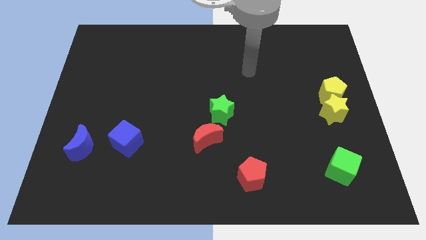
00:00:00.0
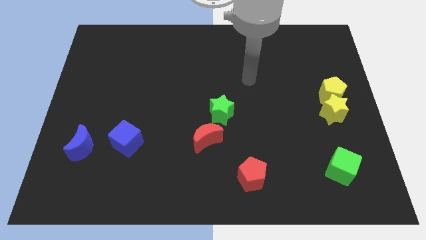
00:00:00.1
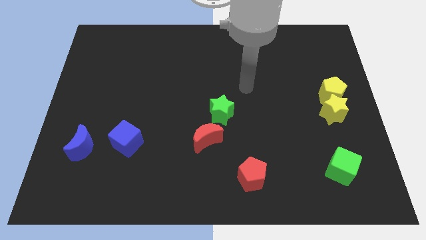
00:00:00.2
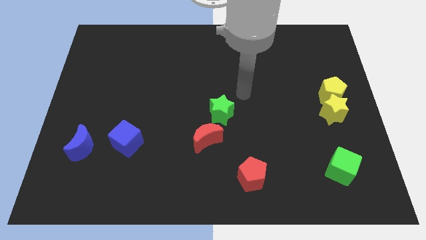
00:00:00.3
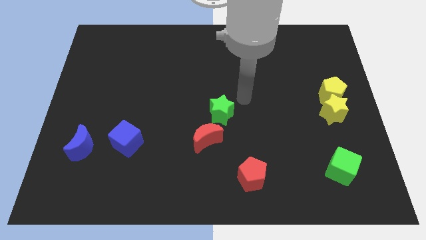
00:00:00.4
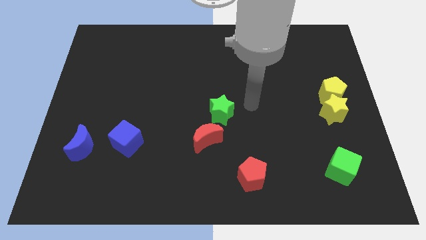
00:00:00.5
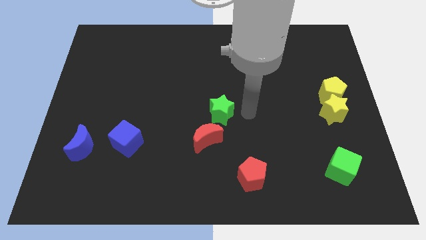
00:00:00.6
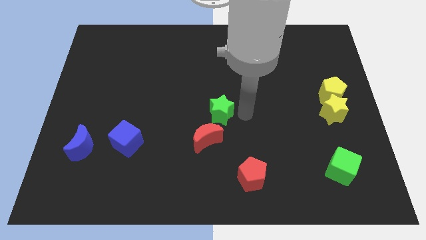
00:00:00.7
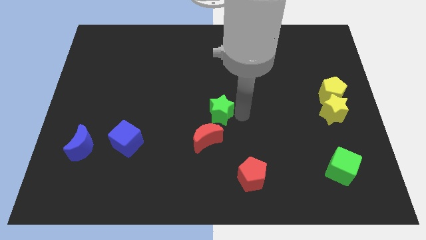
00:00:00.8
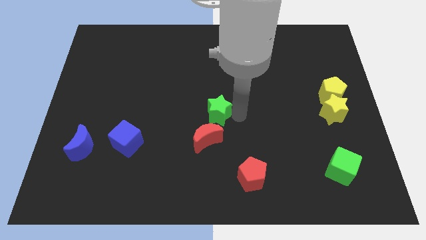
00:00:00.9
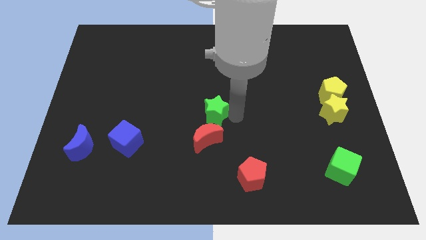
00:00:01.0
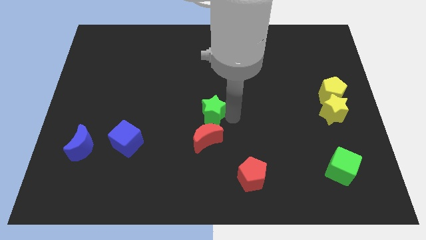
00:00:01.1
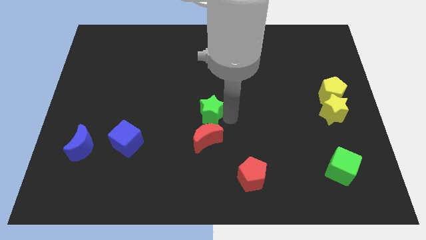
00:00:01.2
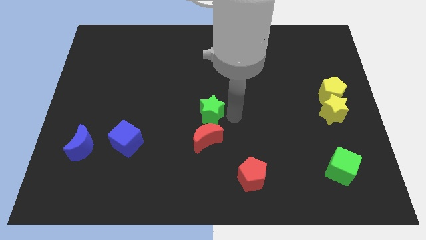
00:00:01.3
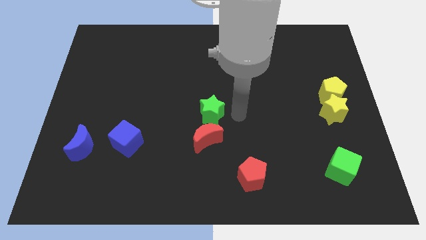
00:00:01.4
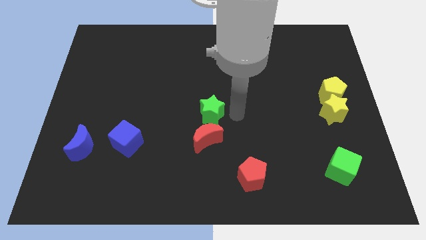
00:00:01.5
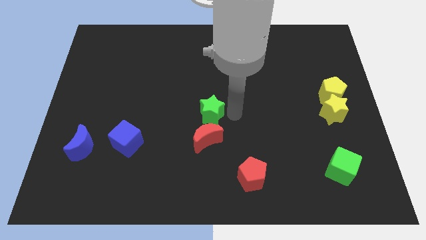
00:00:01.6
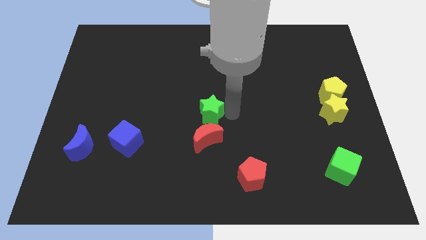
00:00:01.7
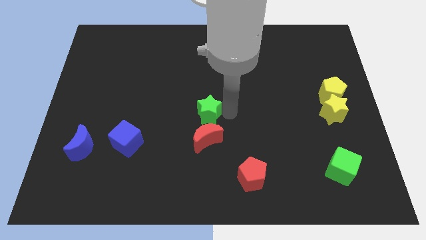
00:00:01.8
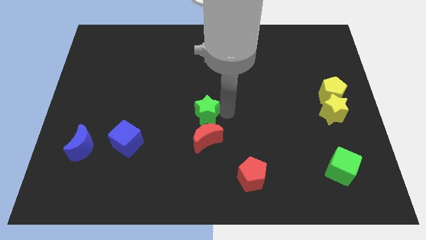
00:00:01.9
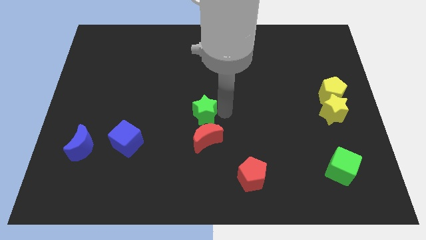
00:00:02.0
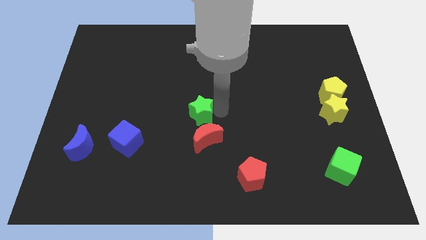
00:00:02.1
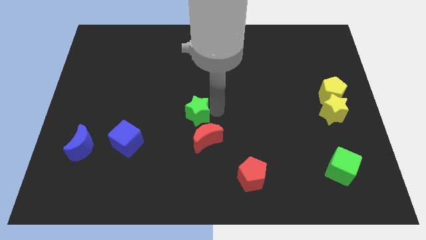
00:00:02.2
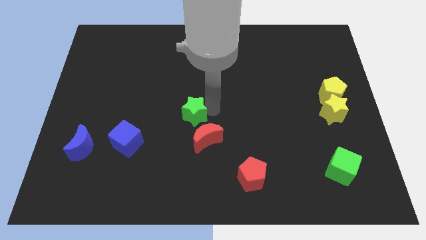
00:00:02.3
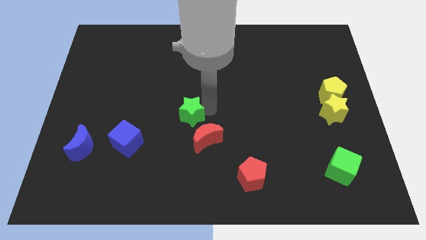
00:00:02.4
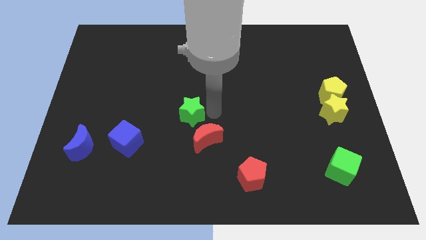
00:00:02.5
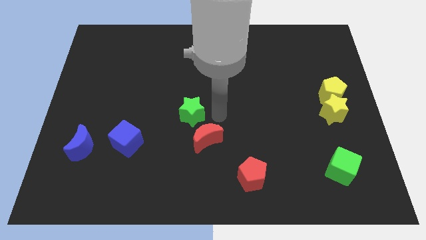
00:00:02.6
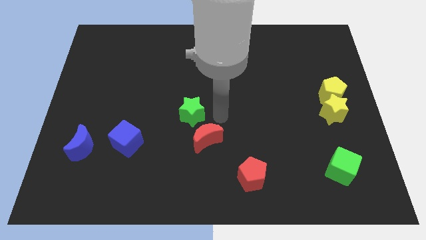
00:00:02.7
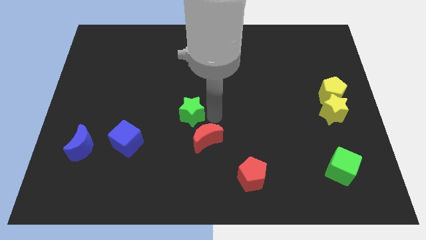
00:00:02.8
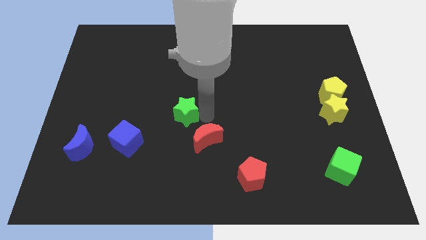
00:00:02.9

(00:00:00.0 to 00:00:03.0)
slightly move the green star to the left

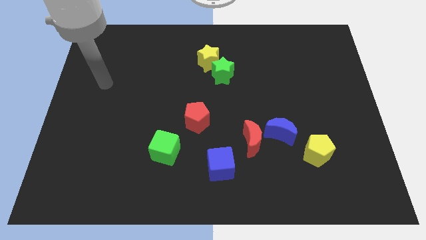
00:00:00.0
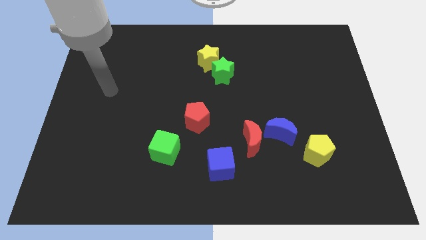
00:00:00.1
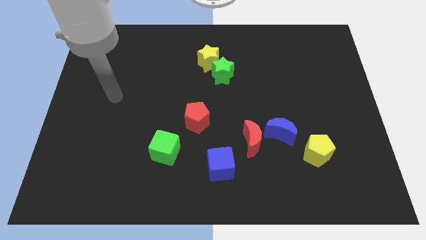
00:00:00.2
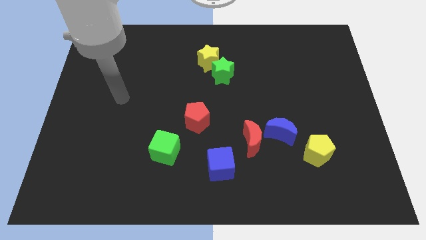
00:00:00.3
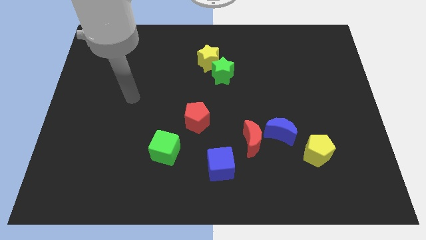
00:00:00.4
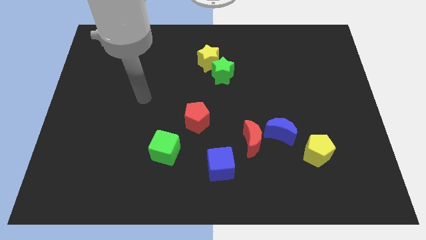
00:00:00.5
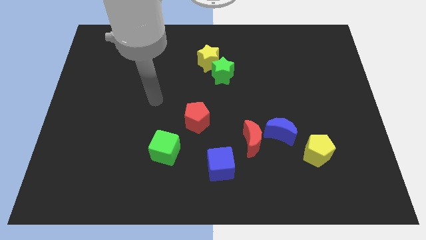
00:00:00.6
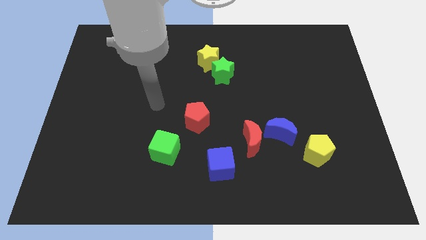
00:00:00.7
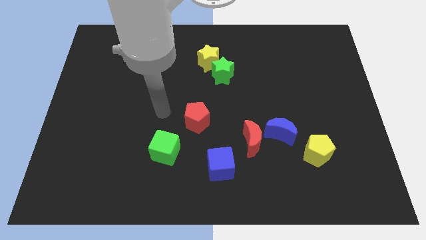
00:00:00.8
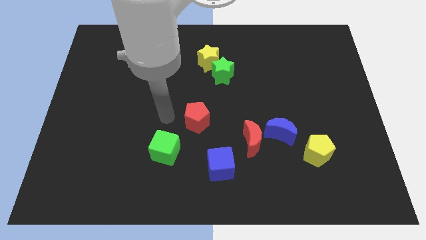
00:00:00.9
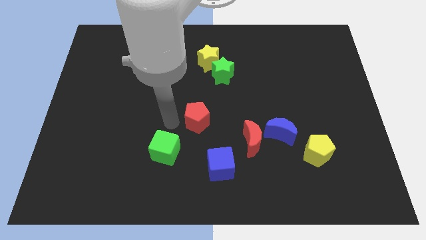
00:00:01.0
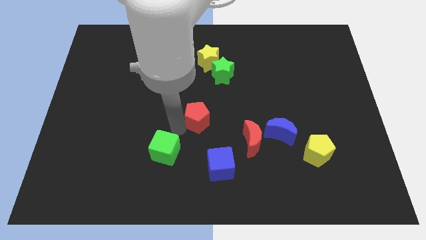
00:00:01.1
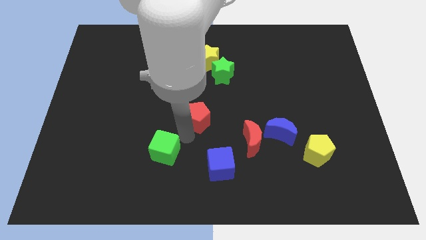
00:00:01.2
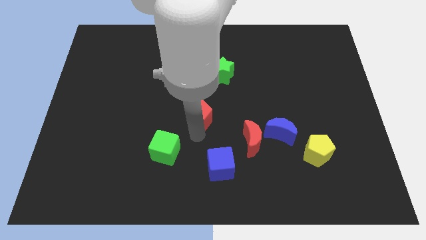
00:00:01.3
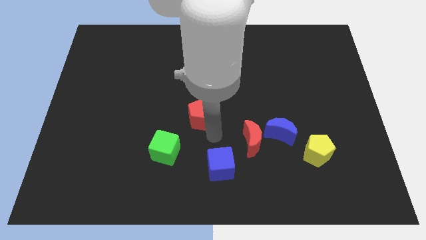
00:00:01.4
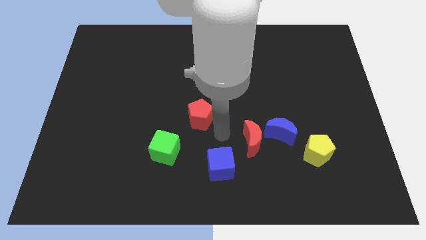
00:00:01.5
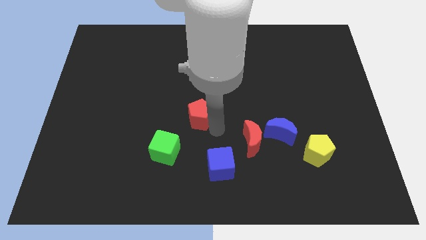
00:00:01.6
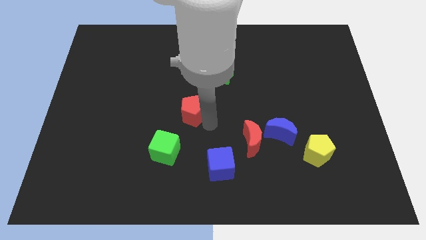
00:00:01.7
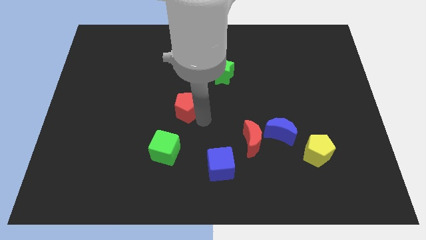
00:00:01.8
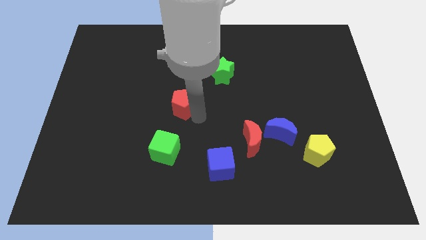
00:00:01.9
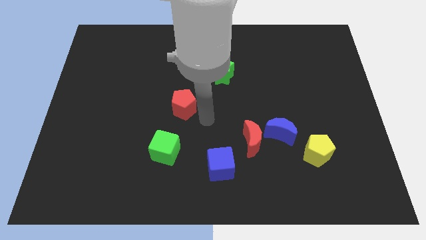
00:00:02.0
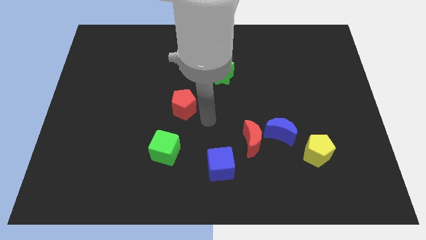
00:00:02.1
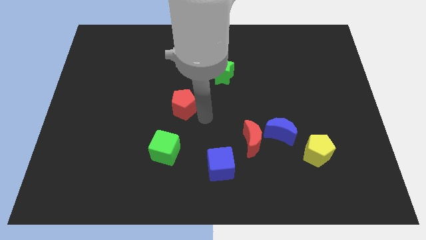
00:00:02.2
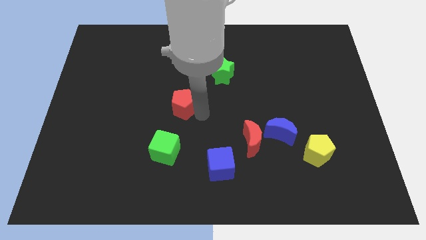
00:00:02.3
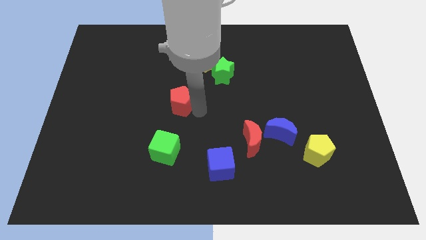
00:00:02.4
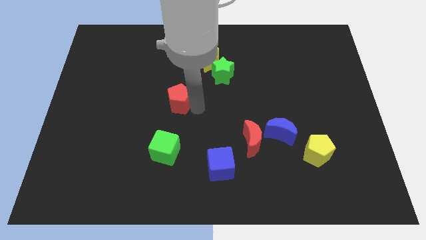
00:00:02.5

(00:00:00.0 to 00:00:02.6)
slide the red pentagon slightly up and then left

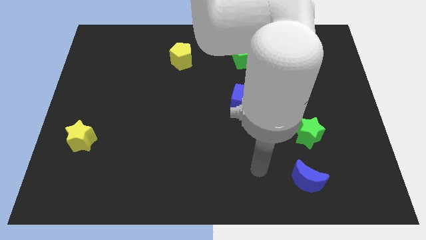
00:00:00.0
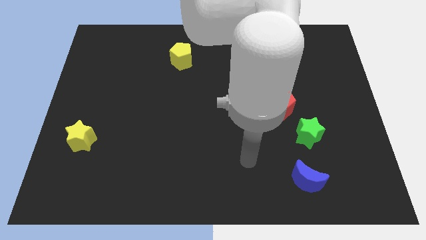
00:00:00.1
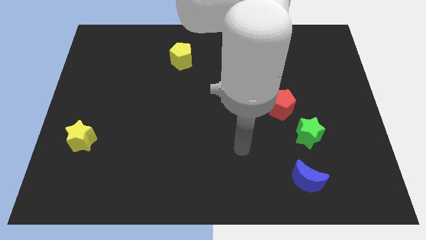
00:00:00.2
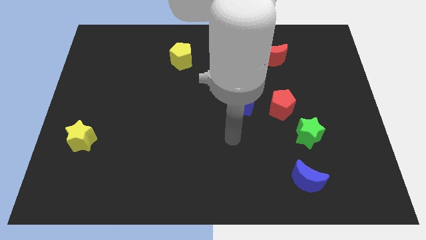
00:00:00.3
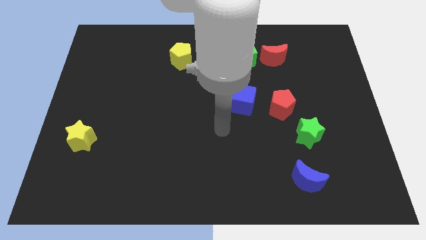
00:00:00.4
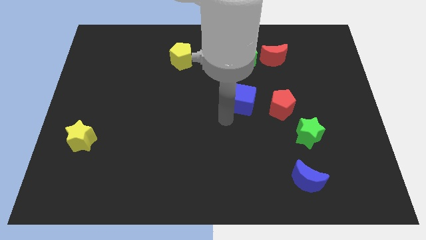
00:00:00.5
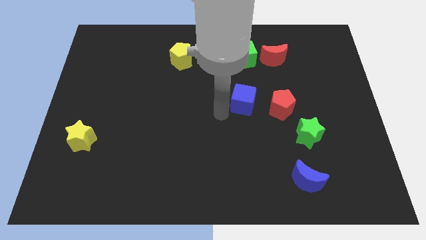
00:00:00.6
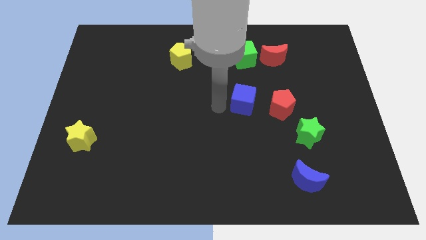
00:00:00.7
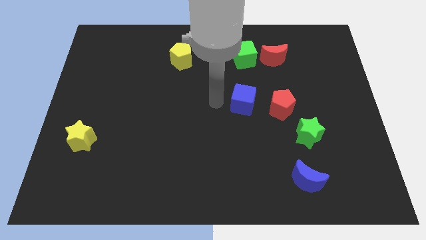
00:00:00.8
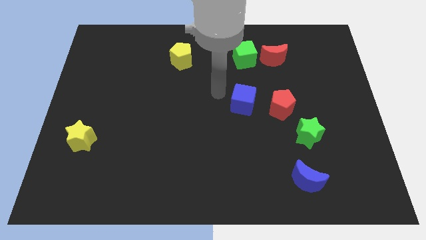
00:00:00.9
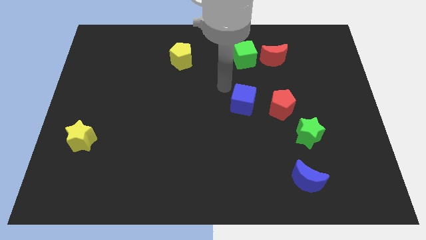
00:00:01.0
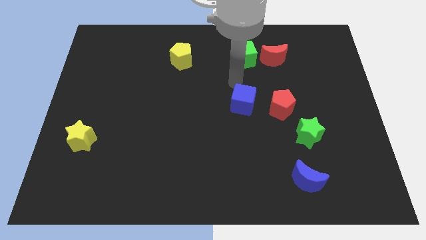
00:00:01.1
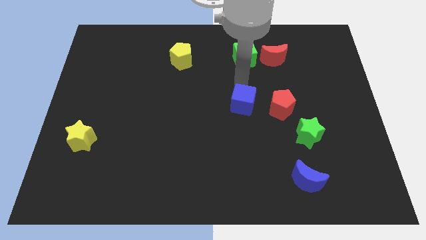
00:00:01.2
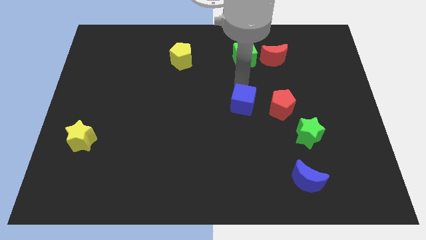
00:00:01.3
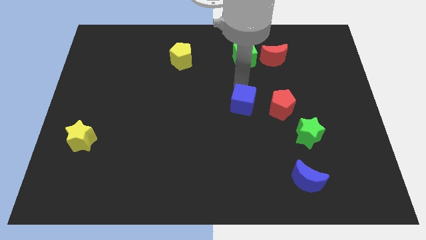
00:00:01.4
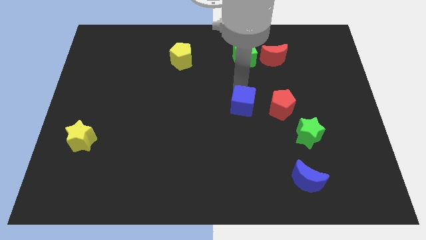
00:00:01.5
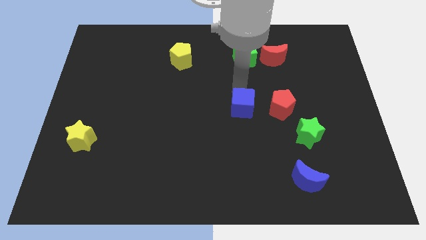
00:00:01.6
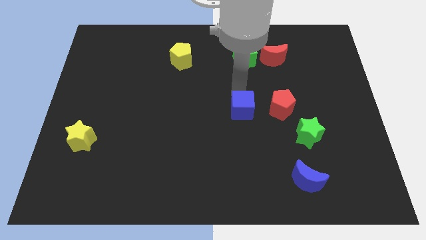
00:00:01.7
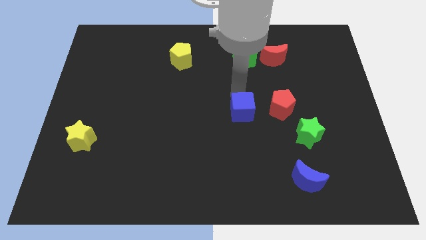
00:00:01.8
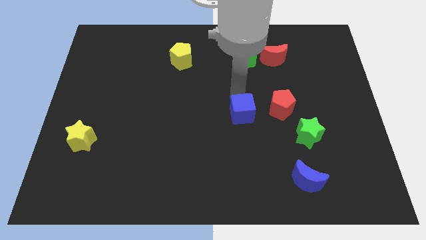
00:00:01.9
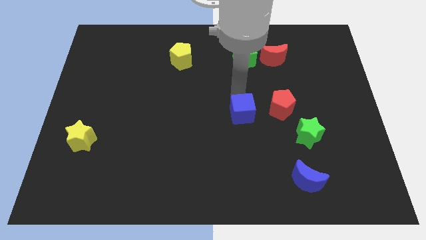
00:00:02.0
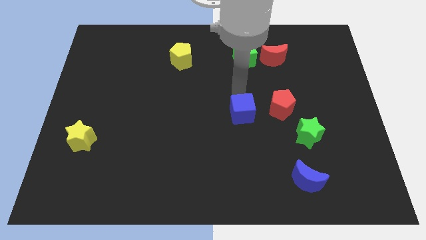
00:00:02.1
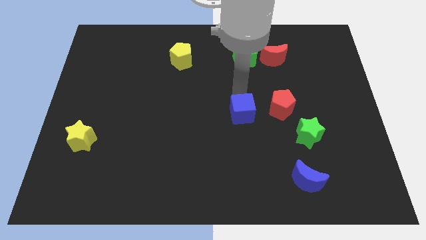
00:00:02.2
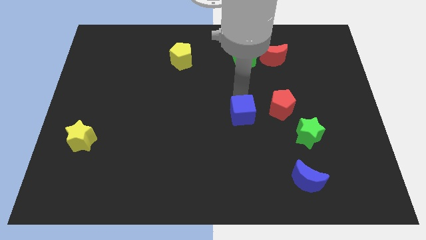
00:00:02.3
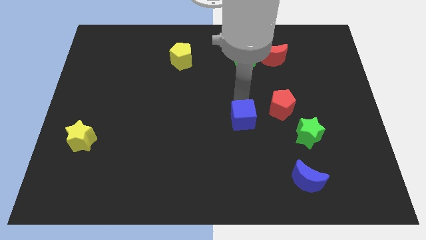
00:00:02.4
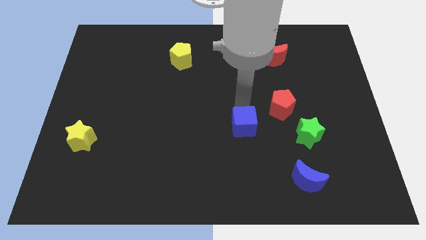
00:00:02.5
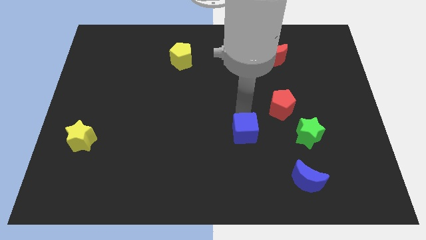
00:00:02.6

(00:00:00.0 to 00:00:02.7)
push the blue cube downwards a little

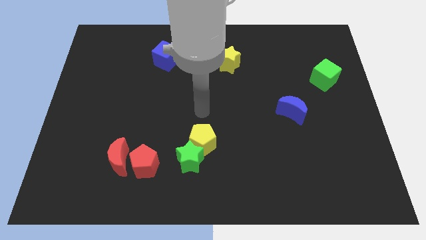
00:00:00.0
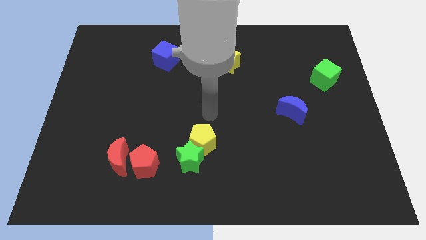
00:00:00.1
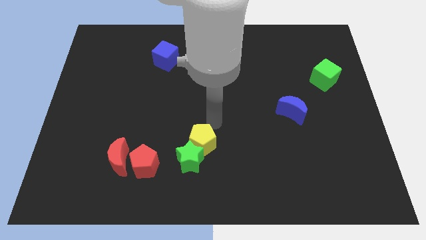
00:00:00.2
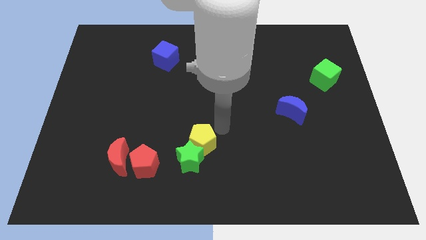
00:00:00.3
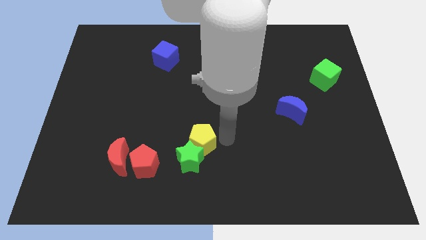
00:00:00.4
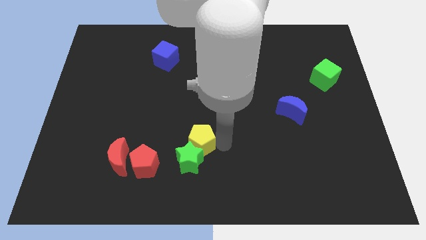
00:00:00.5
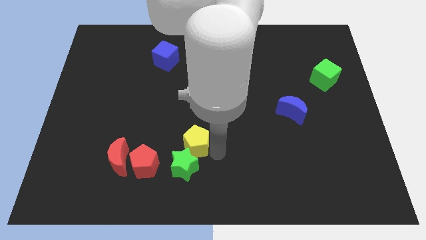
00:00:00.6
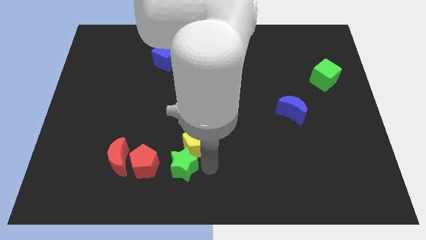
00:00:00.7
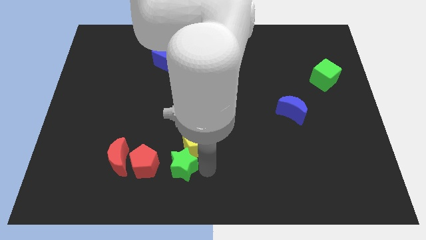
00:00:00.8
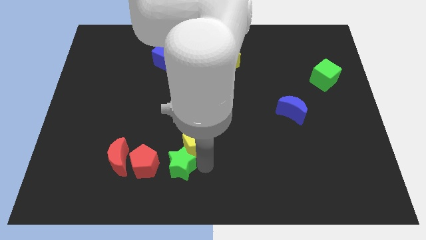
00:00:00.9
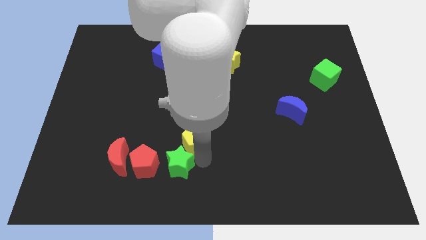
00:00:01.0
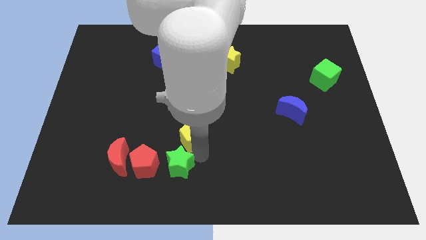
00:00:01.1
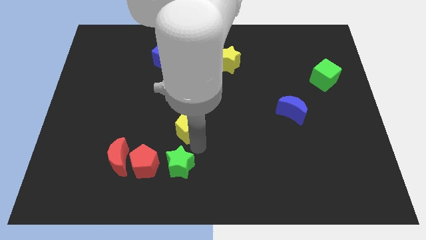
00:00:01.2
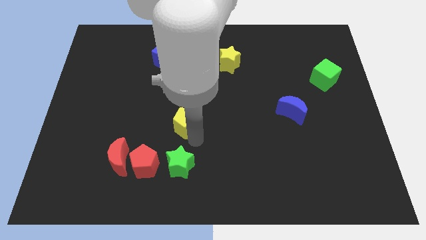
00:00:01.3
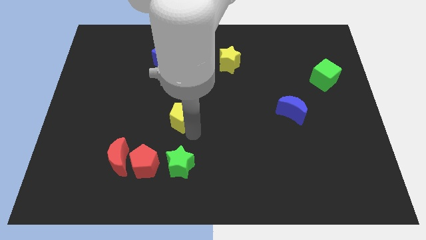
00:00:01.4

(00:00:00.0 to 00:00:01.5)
move the yellow pentagon upwards and then to the left a bit
